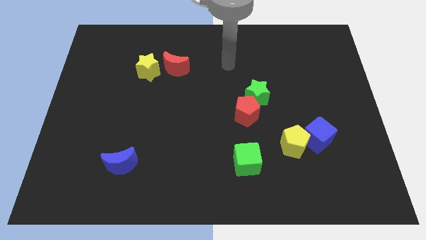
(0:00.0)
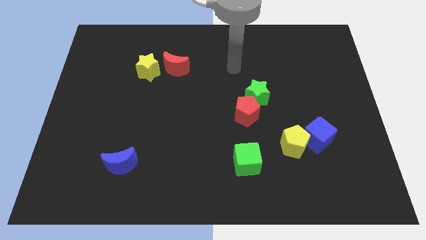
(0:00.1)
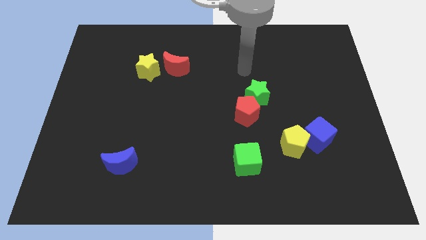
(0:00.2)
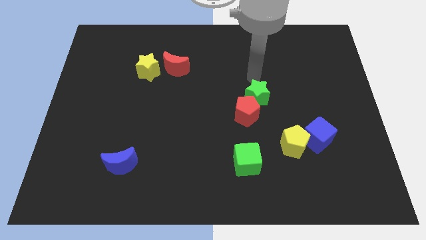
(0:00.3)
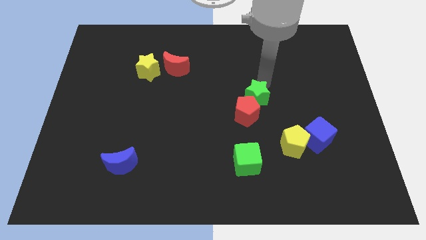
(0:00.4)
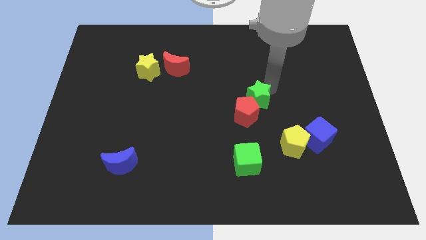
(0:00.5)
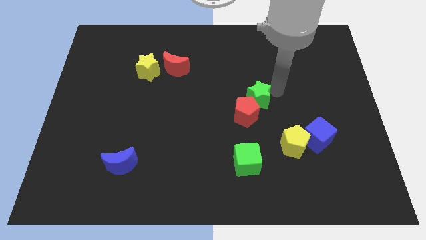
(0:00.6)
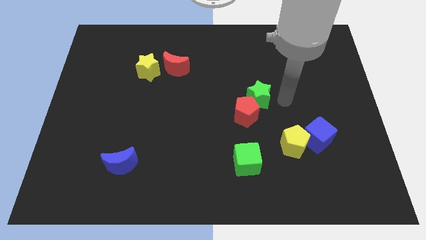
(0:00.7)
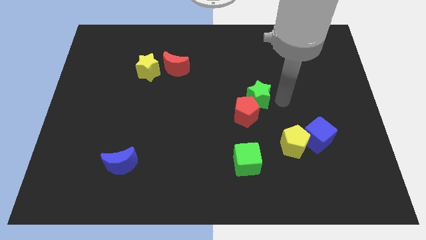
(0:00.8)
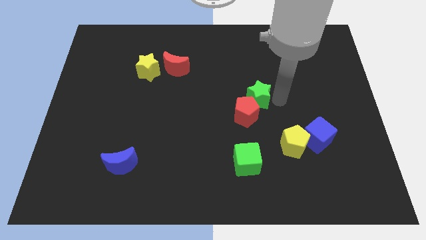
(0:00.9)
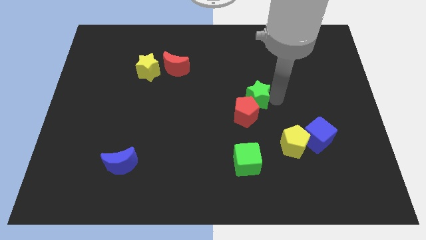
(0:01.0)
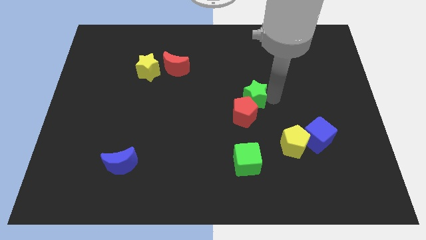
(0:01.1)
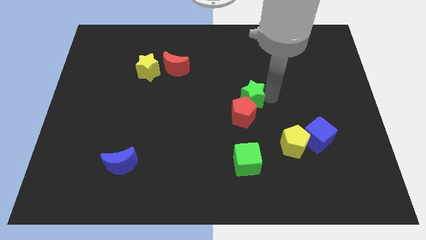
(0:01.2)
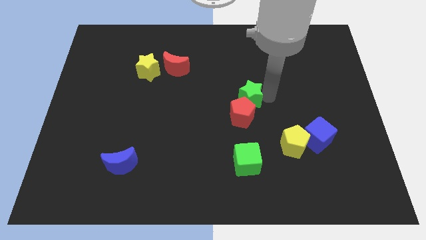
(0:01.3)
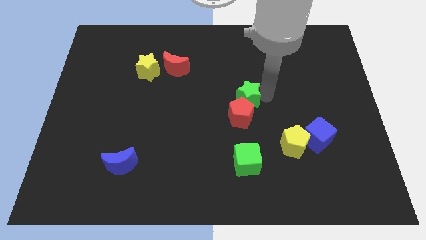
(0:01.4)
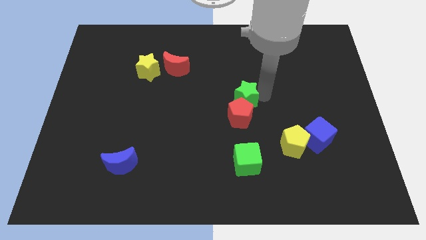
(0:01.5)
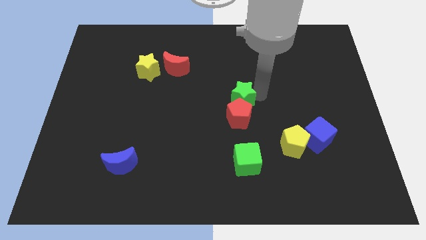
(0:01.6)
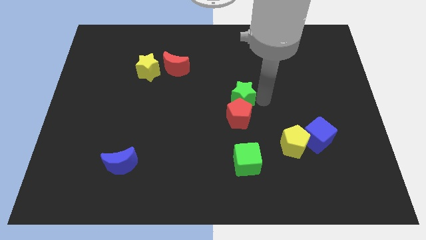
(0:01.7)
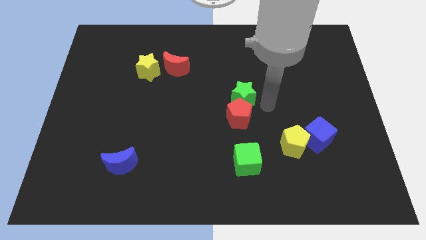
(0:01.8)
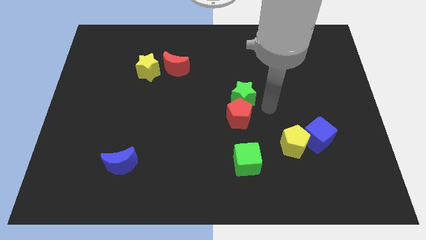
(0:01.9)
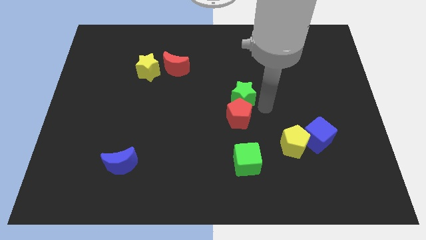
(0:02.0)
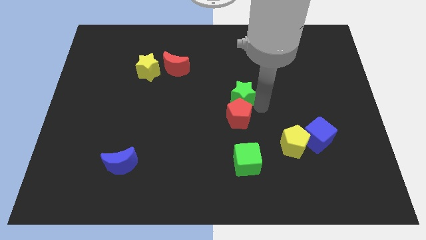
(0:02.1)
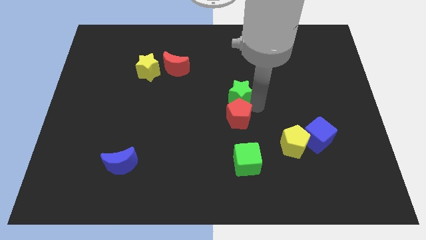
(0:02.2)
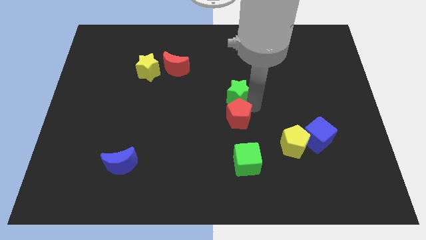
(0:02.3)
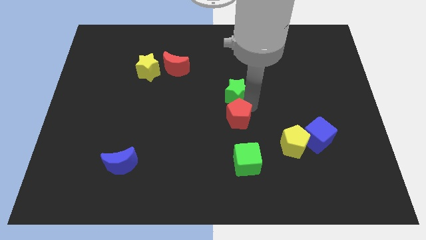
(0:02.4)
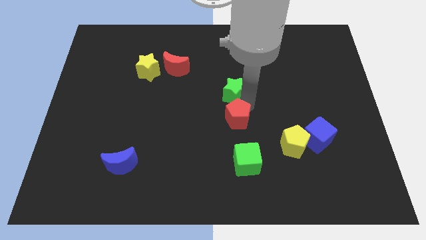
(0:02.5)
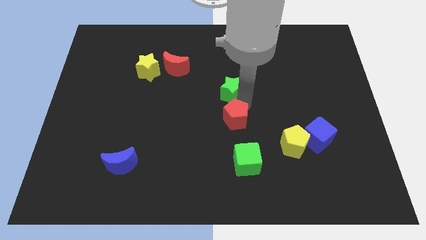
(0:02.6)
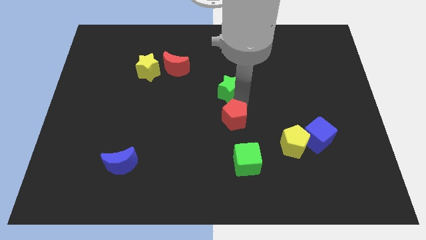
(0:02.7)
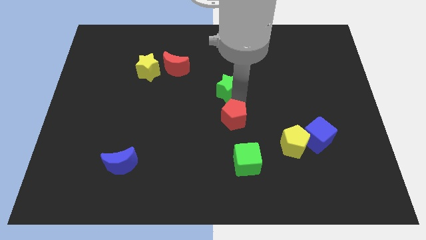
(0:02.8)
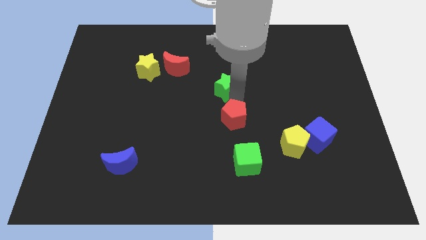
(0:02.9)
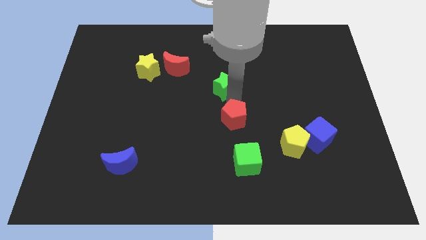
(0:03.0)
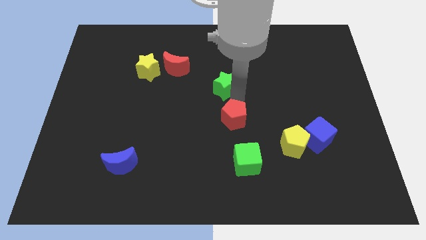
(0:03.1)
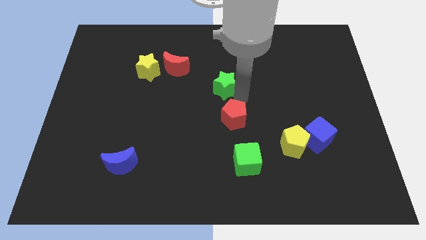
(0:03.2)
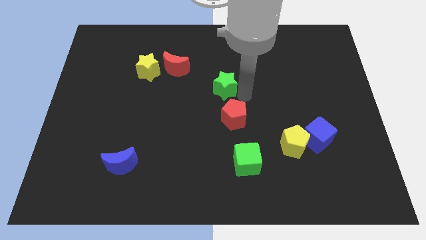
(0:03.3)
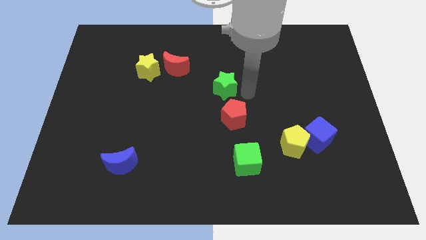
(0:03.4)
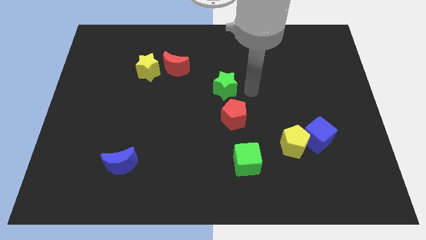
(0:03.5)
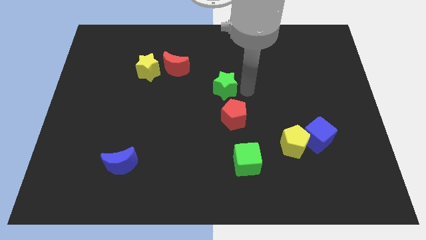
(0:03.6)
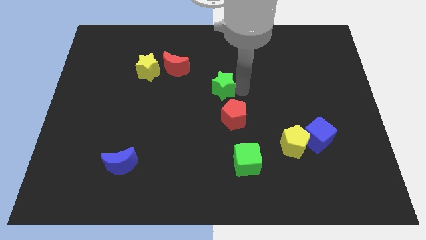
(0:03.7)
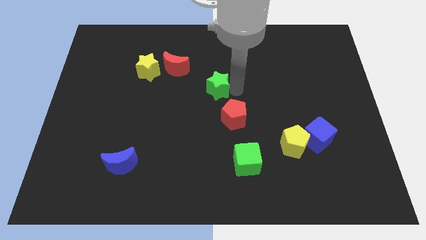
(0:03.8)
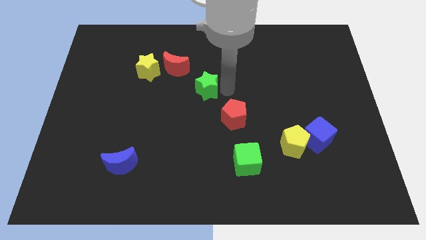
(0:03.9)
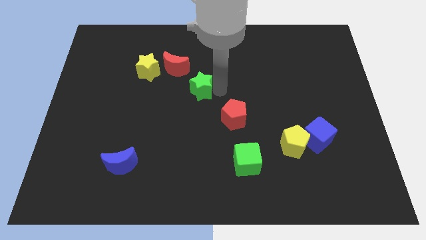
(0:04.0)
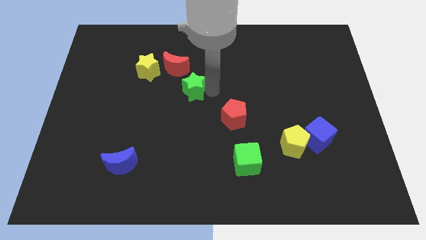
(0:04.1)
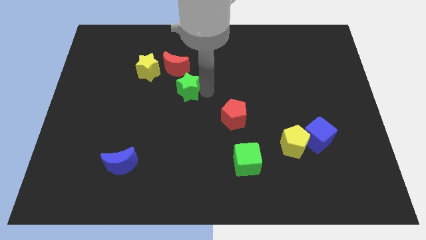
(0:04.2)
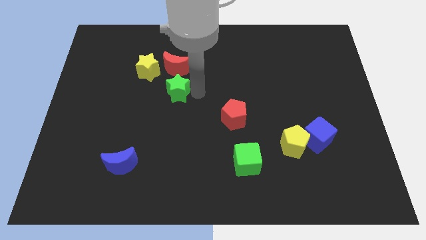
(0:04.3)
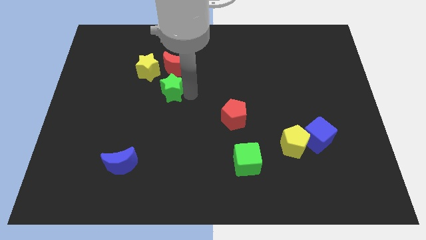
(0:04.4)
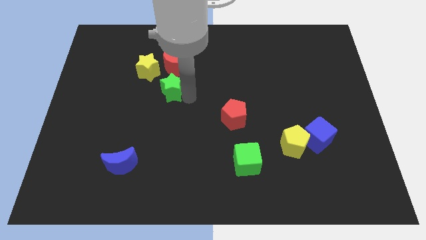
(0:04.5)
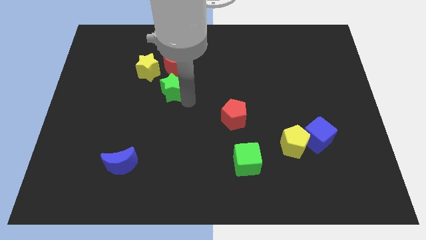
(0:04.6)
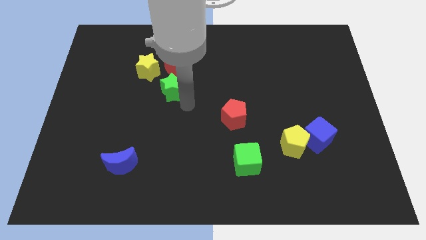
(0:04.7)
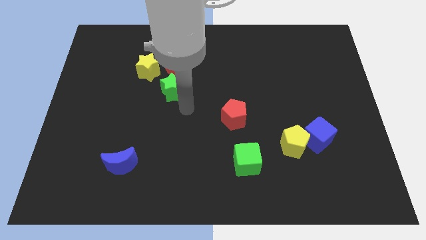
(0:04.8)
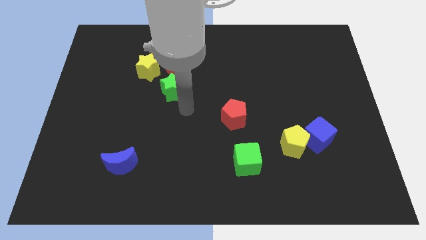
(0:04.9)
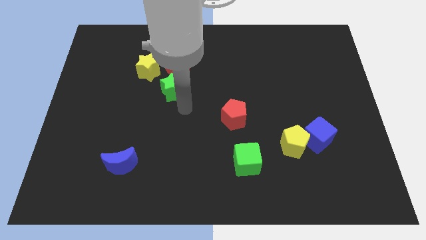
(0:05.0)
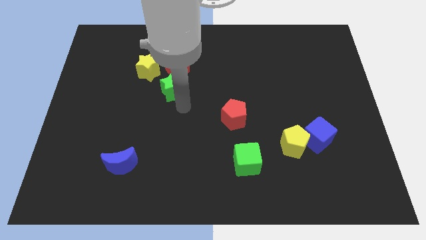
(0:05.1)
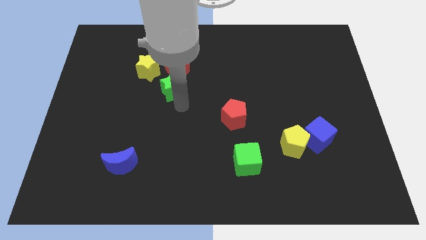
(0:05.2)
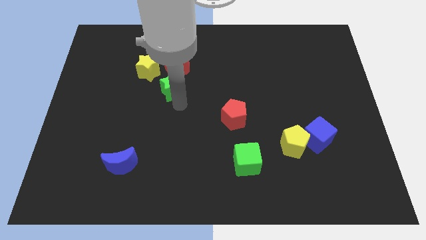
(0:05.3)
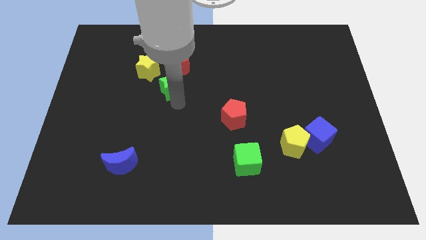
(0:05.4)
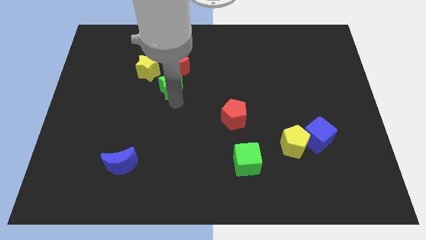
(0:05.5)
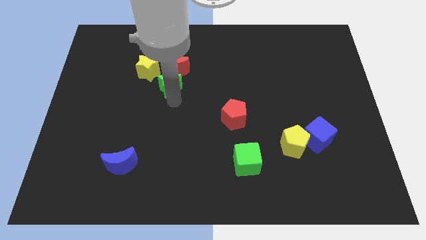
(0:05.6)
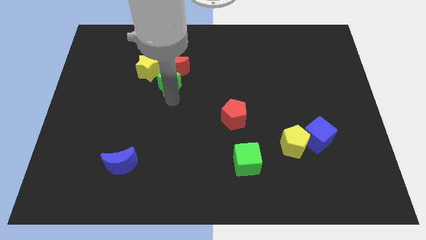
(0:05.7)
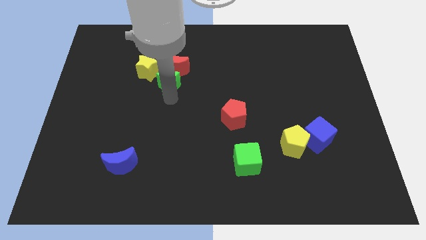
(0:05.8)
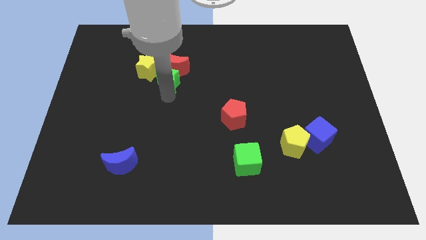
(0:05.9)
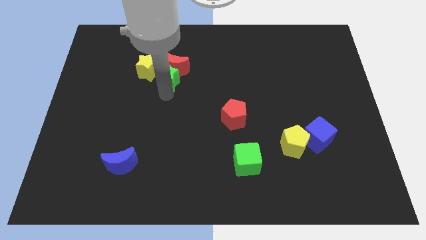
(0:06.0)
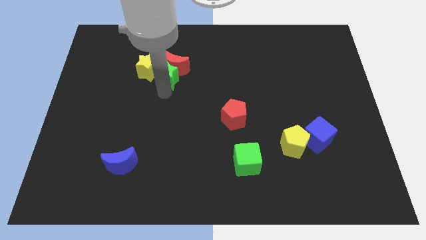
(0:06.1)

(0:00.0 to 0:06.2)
push the green star towards the yellow star
